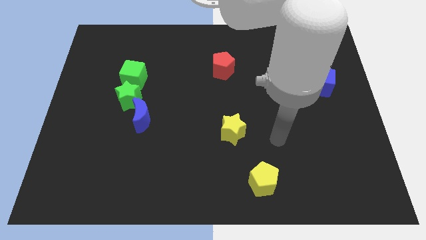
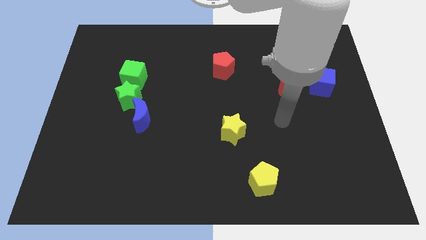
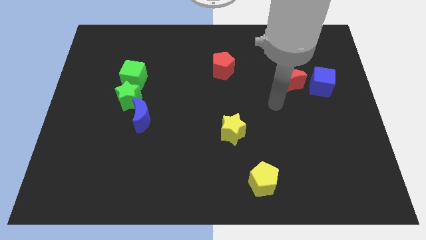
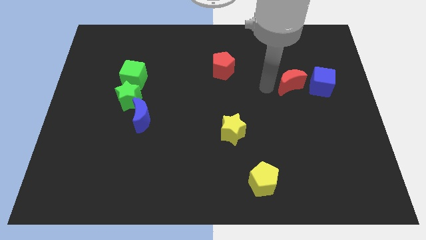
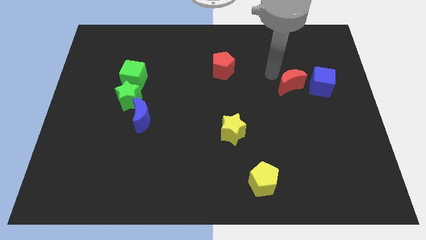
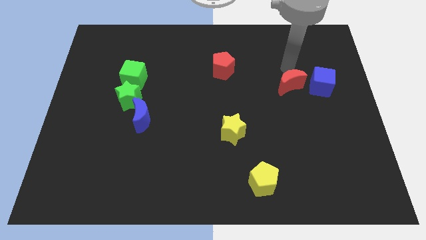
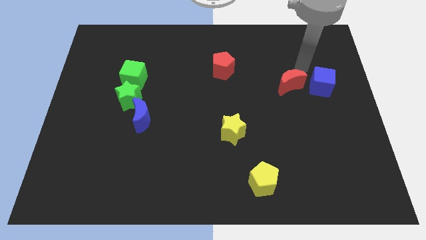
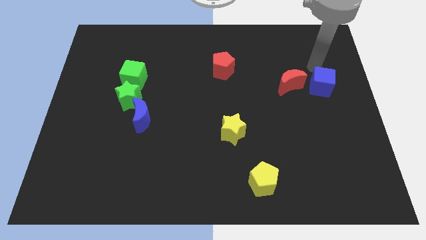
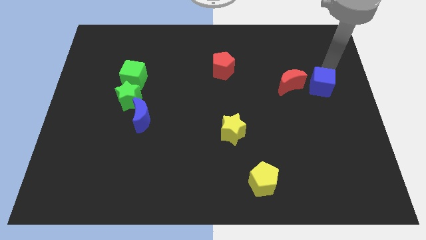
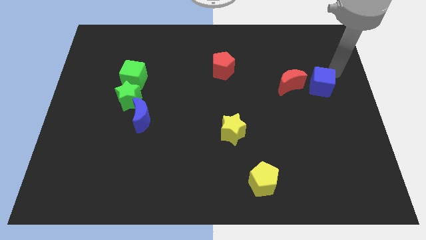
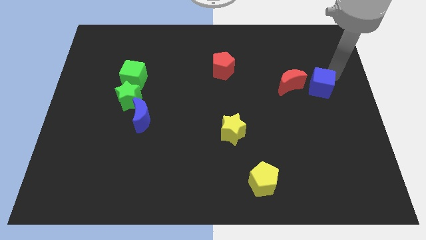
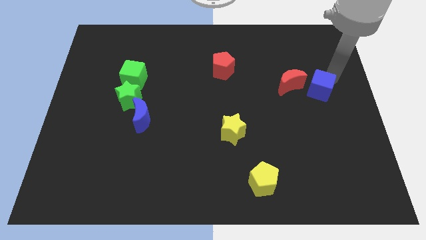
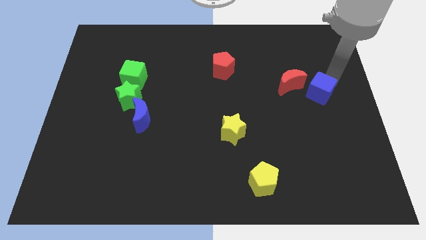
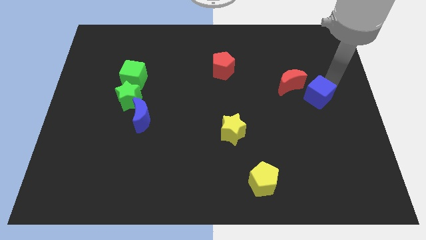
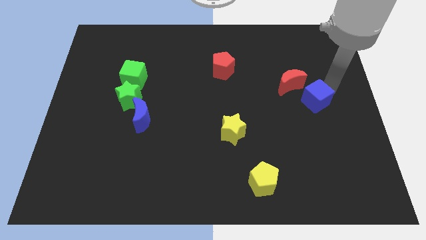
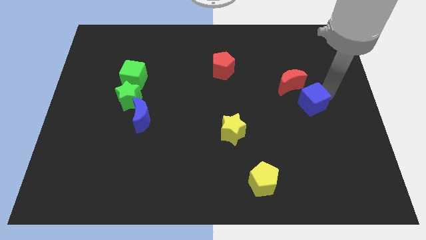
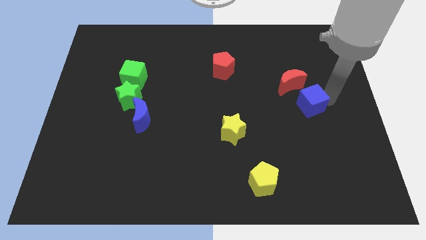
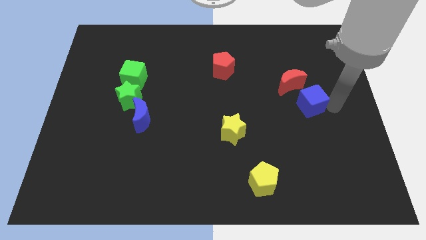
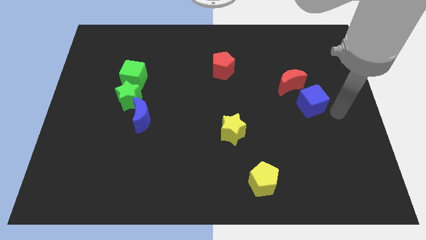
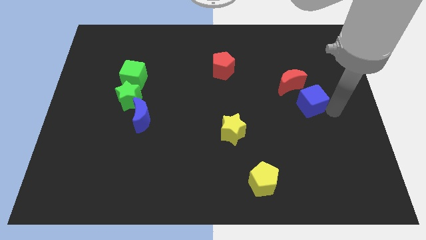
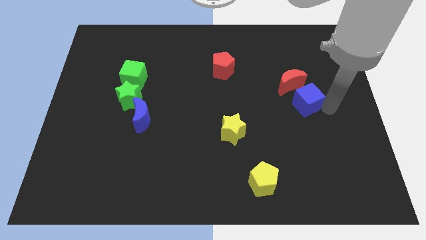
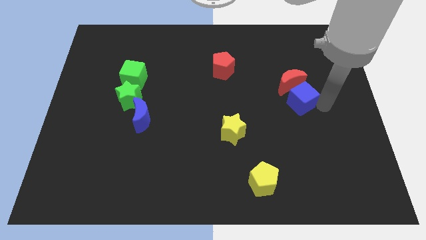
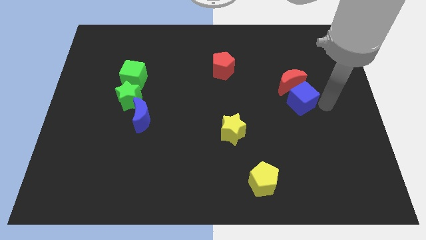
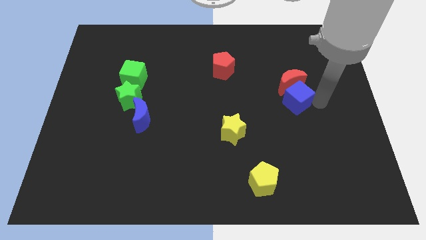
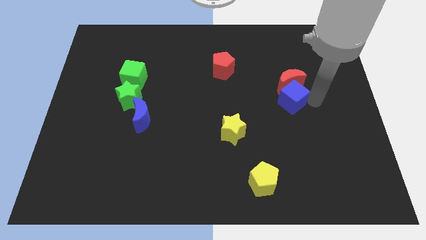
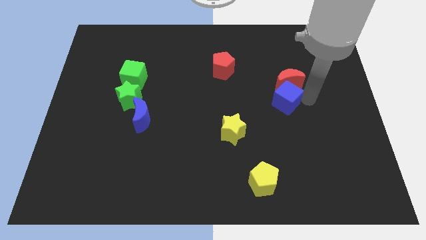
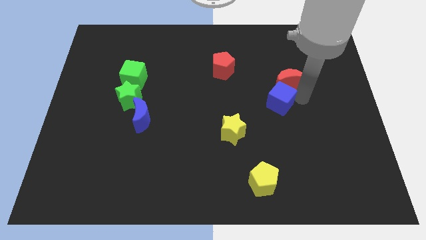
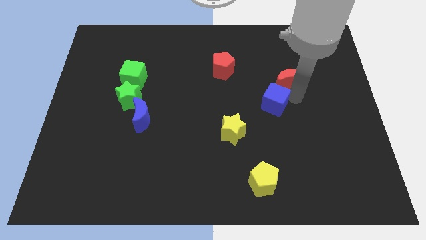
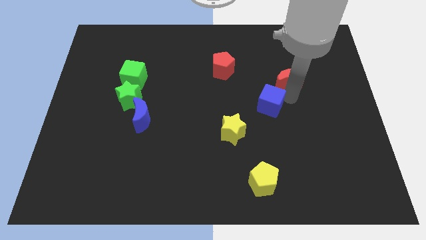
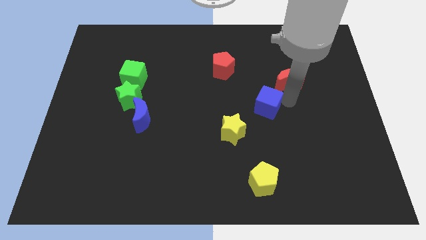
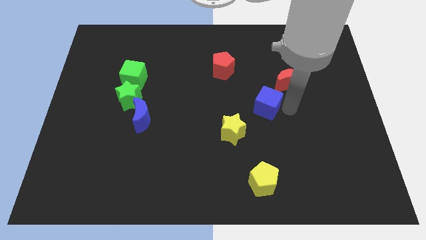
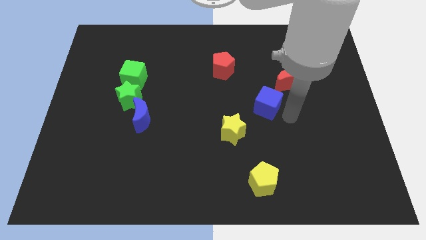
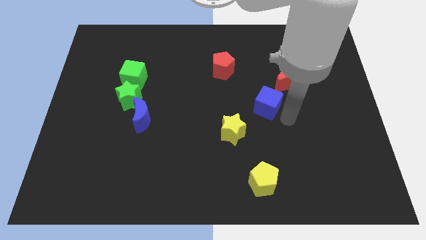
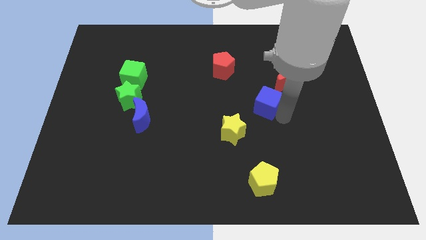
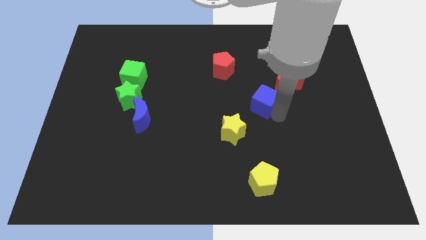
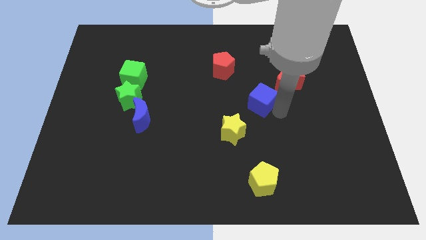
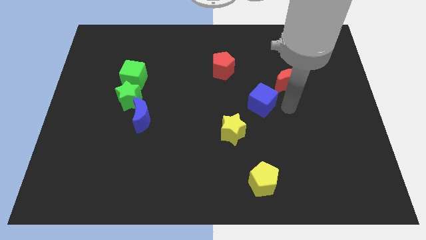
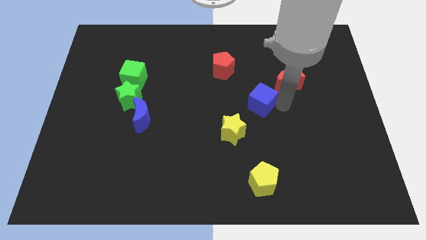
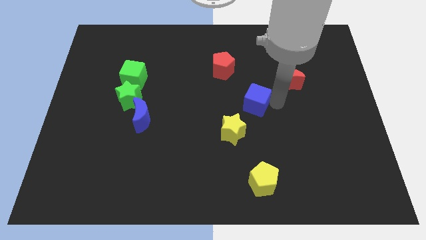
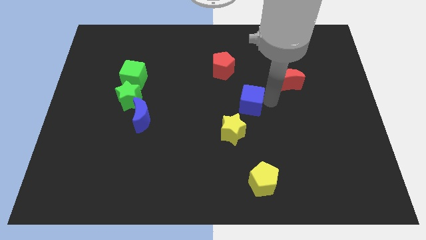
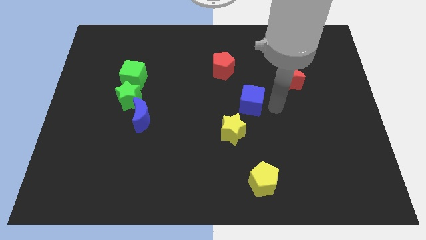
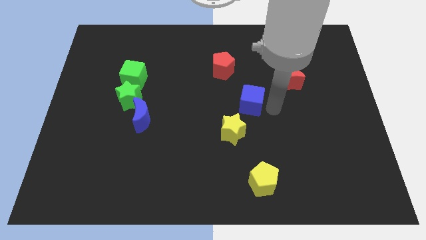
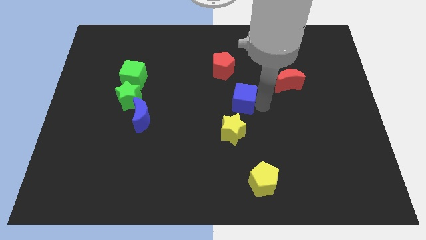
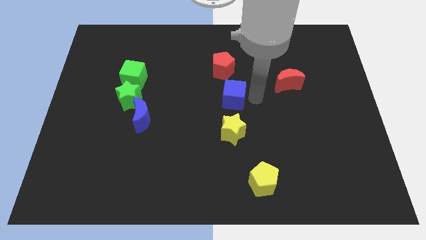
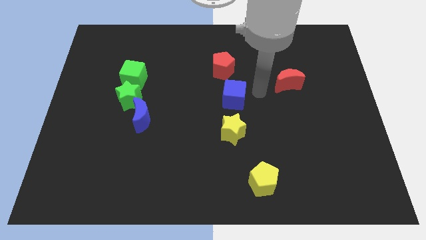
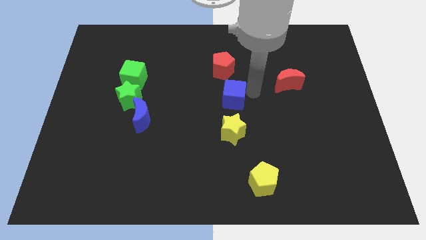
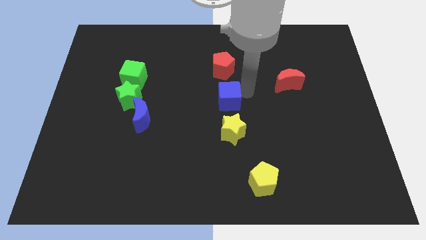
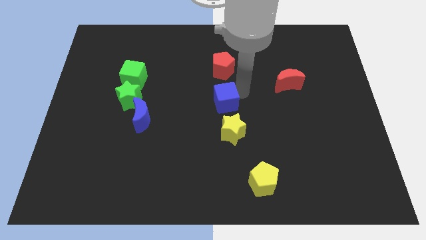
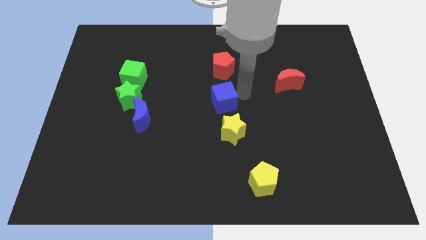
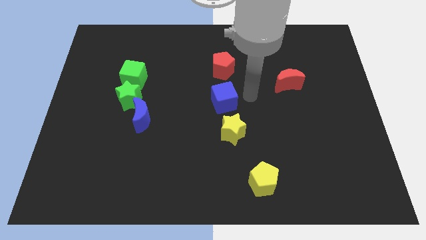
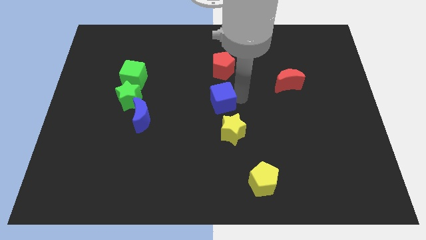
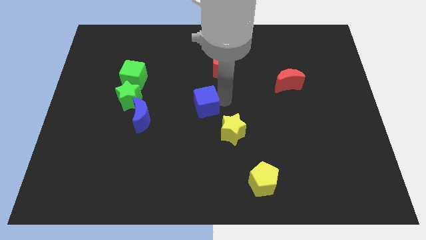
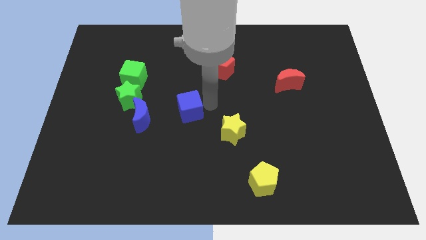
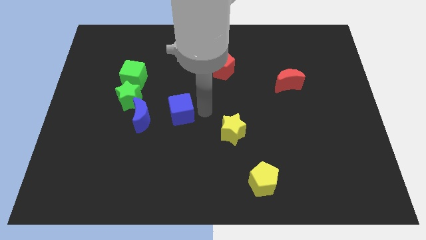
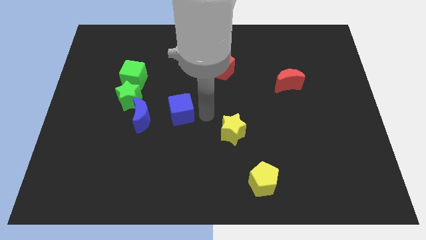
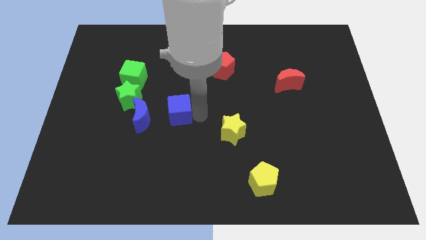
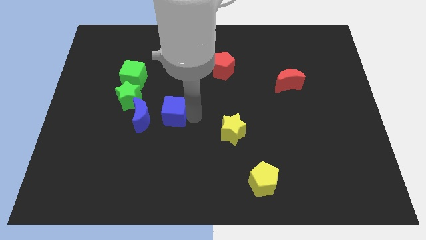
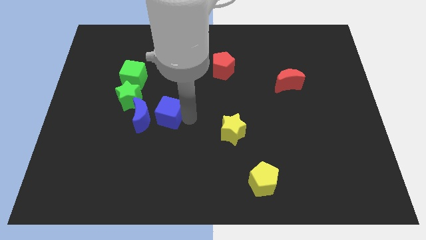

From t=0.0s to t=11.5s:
put the blue cube close to the blue moon

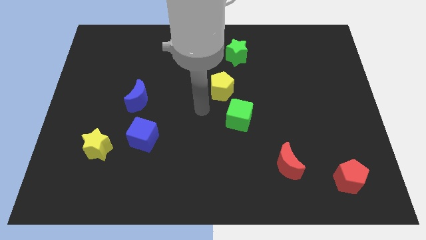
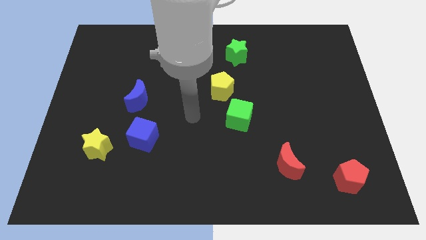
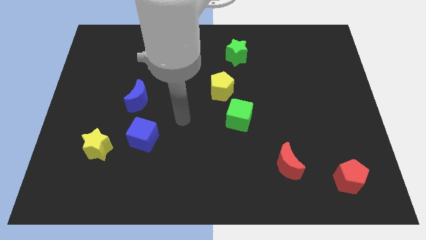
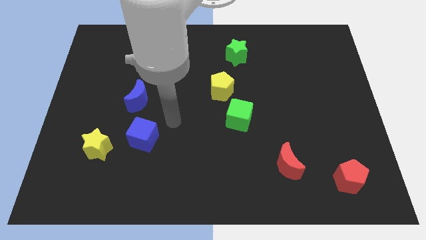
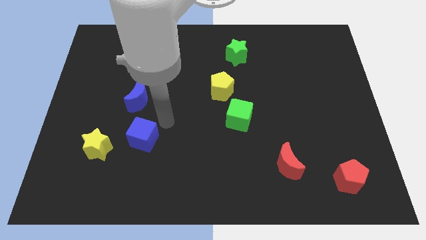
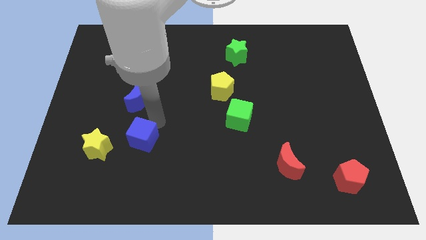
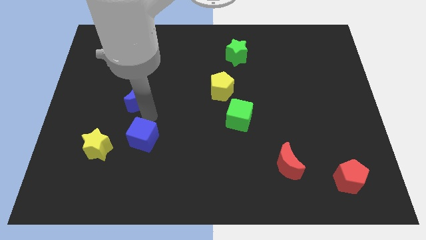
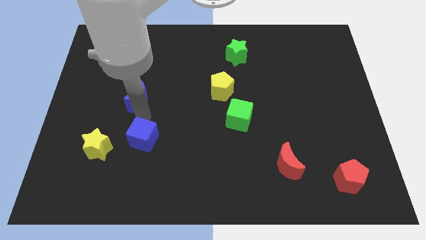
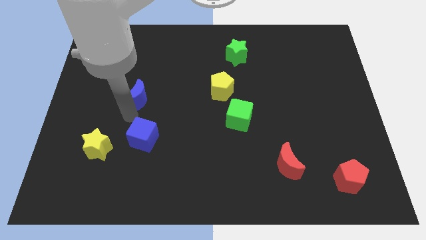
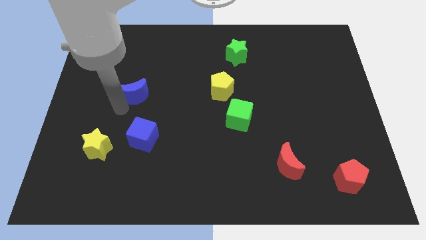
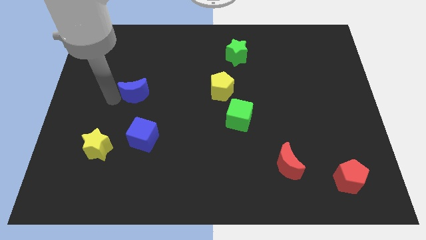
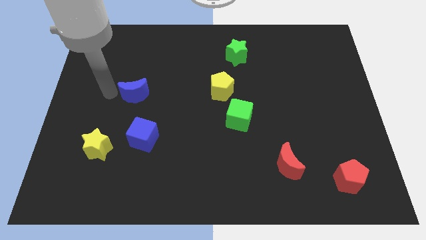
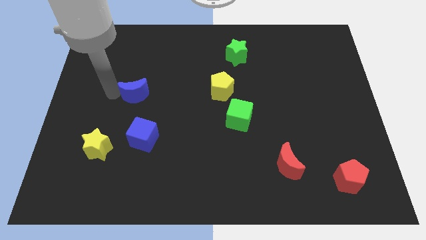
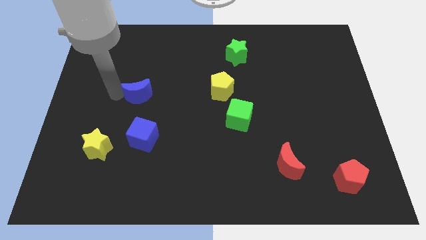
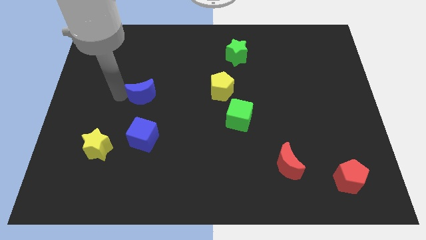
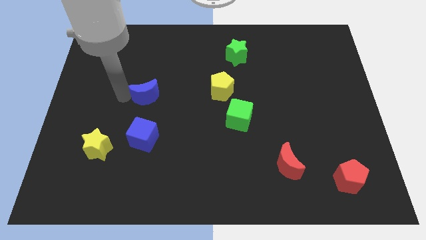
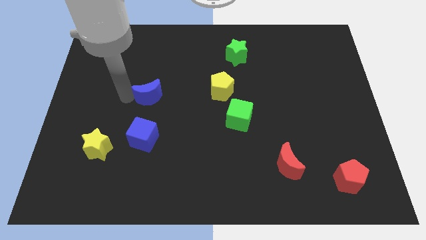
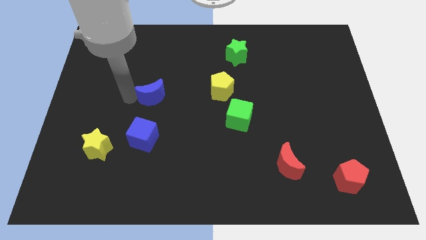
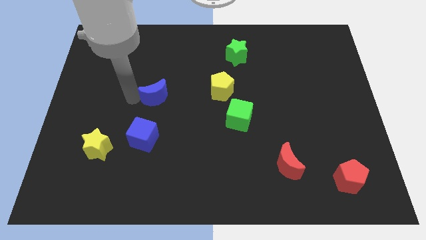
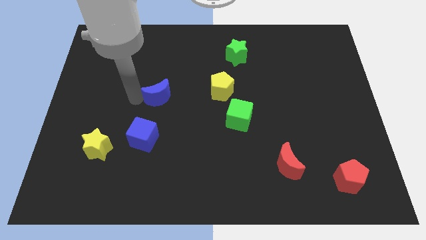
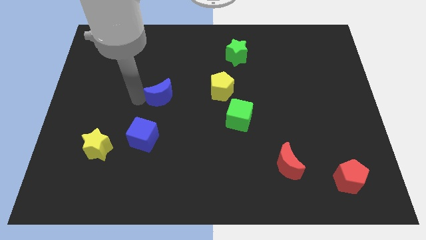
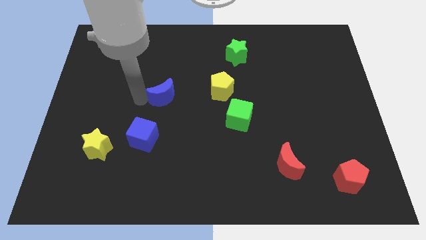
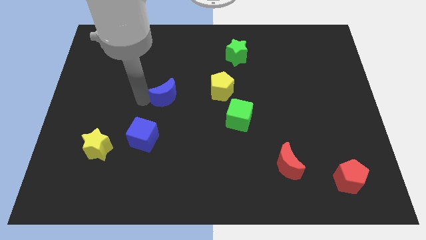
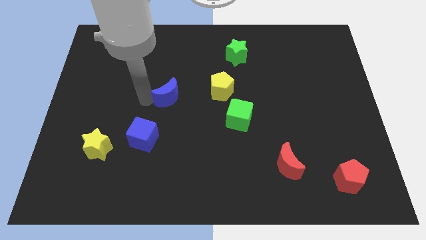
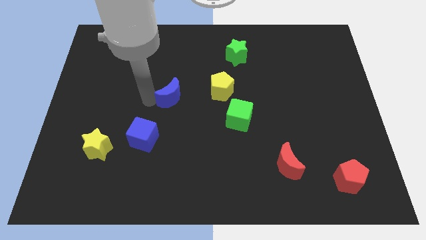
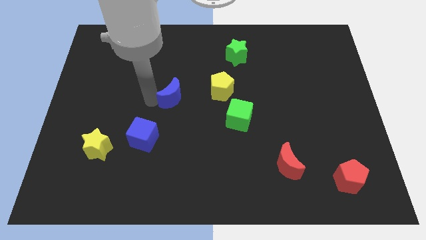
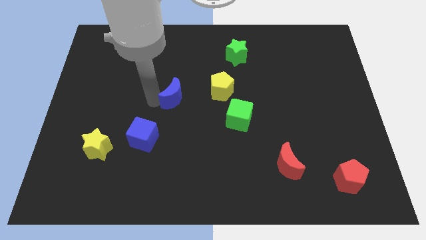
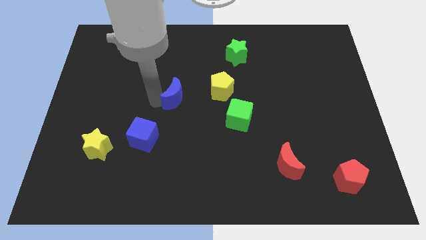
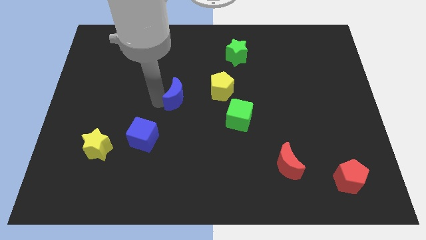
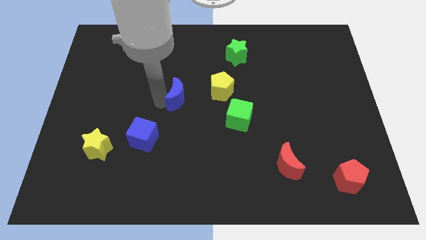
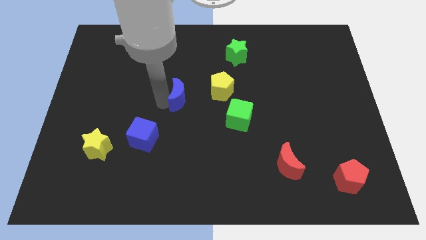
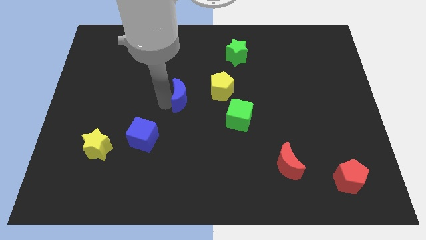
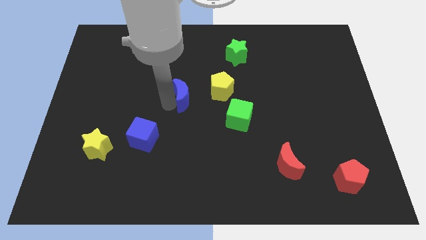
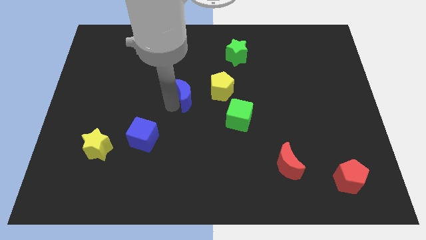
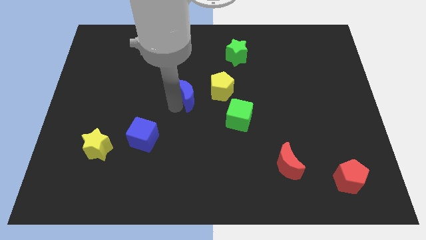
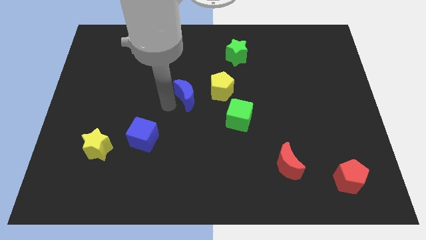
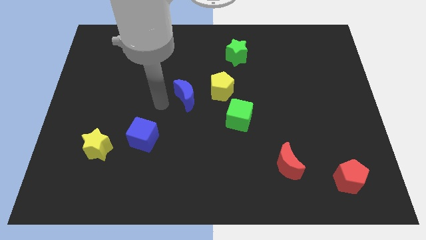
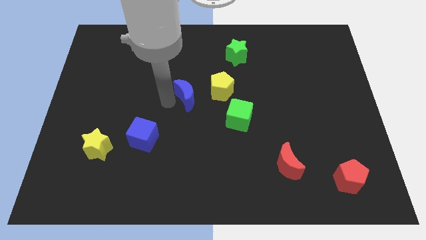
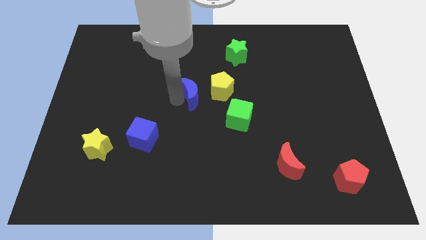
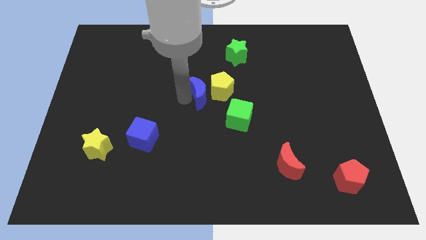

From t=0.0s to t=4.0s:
put the blue moon to the yellow pentagon
